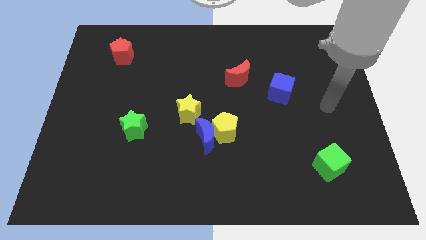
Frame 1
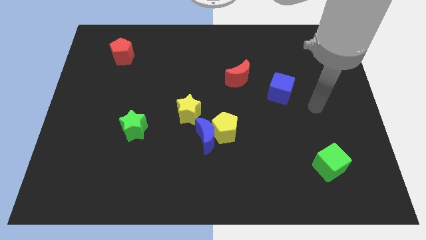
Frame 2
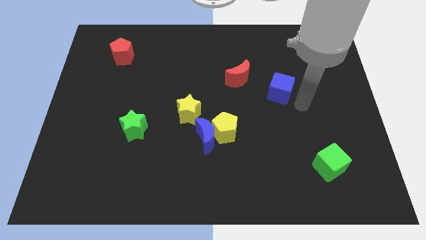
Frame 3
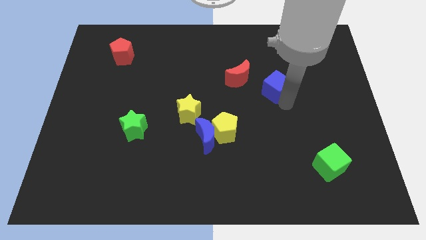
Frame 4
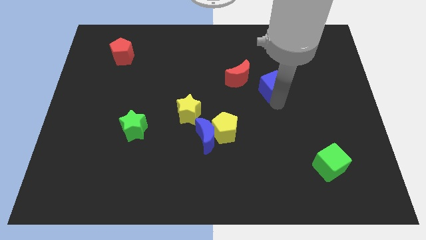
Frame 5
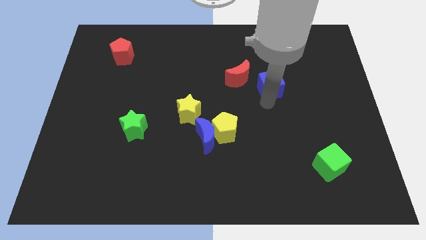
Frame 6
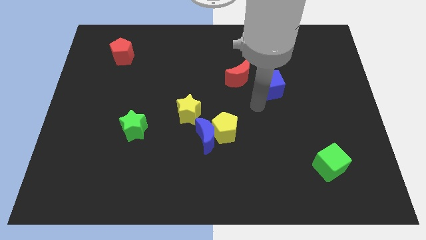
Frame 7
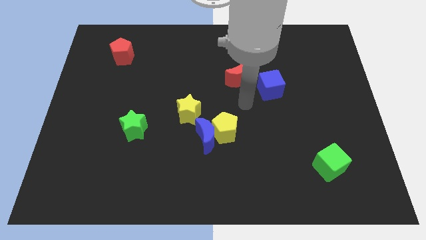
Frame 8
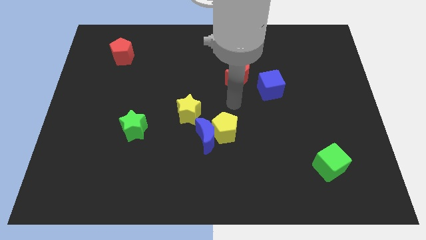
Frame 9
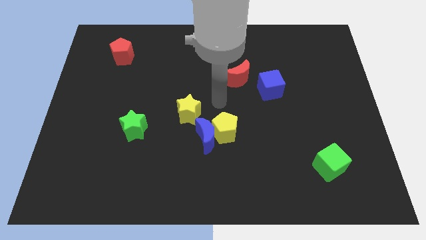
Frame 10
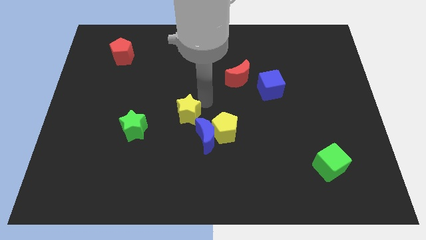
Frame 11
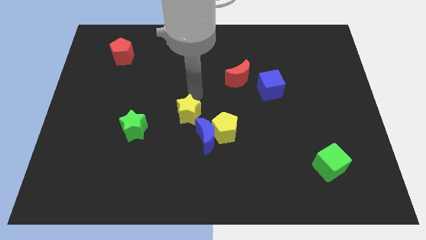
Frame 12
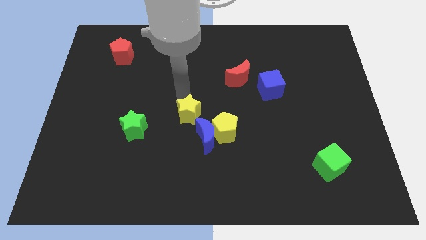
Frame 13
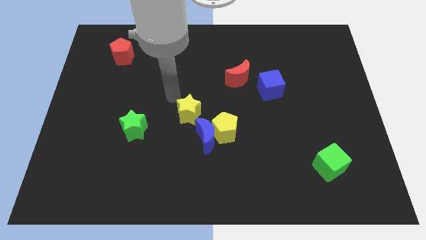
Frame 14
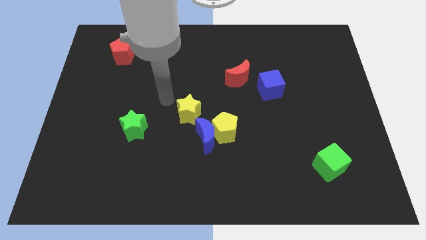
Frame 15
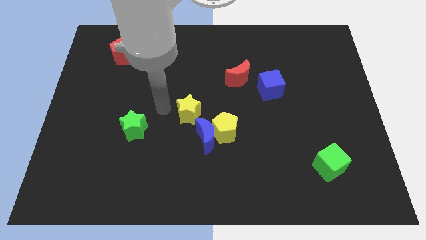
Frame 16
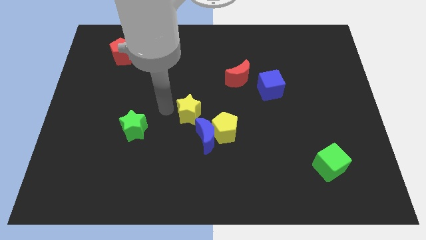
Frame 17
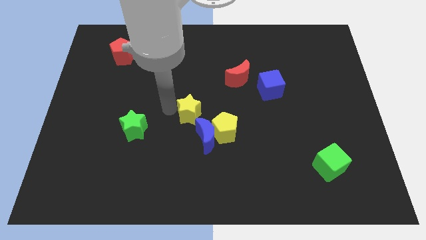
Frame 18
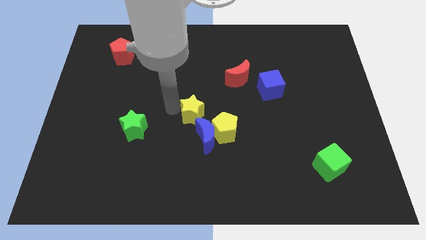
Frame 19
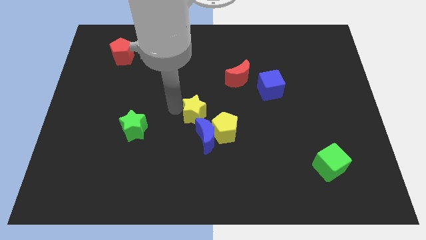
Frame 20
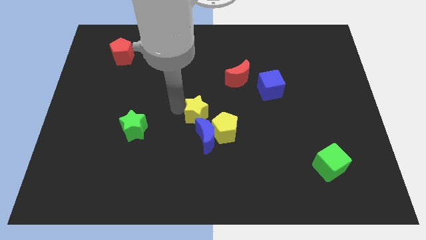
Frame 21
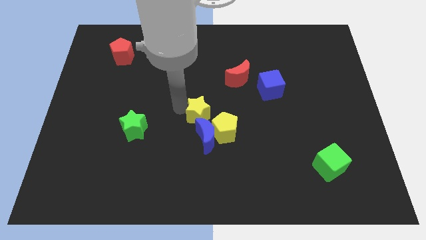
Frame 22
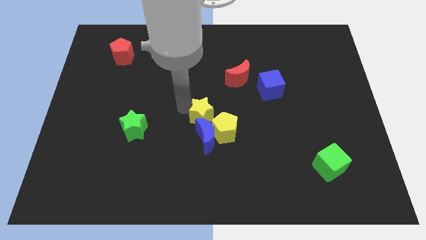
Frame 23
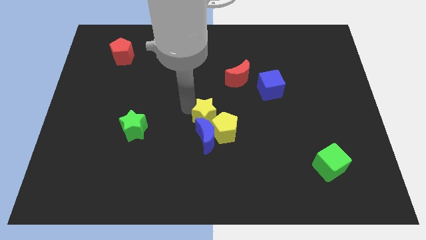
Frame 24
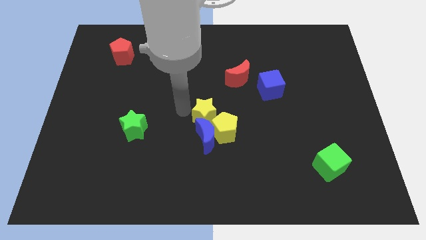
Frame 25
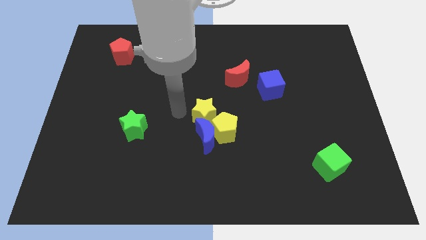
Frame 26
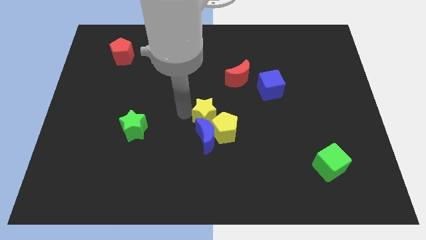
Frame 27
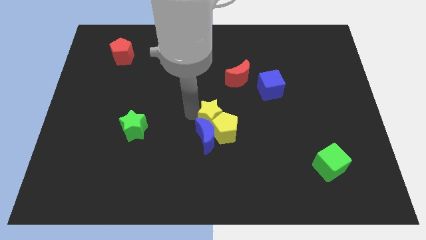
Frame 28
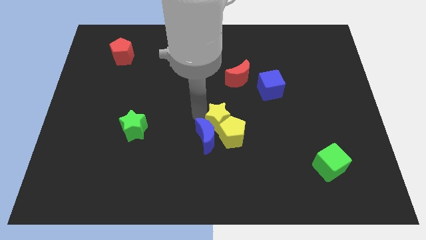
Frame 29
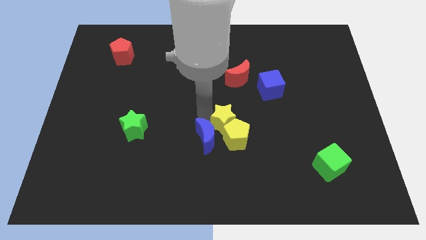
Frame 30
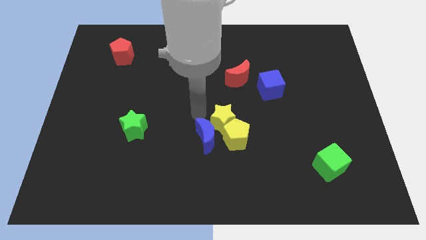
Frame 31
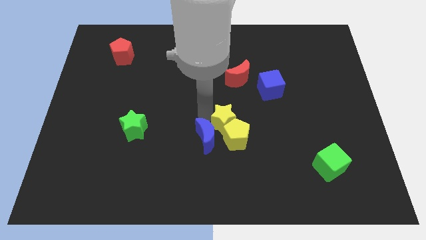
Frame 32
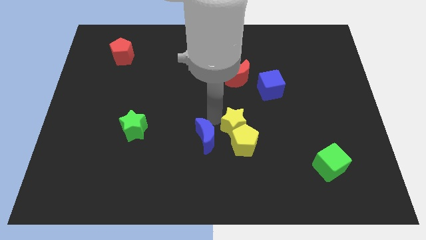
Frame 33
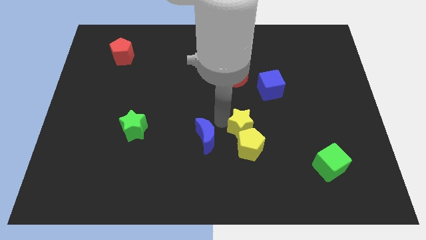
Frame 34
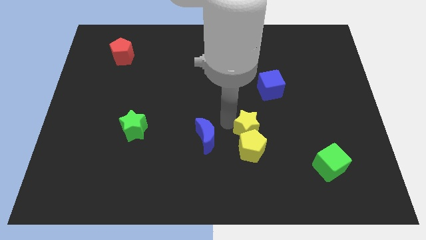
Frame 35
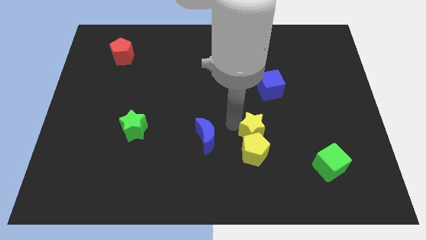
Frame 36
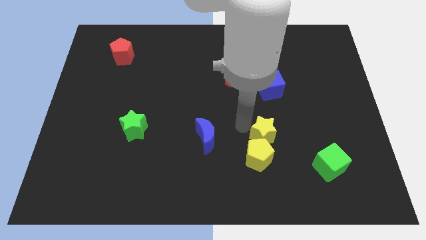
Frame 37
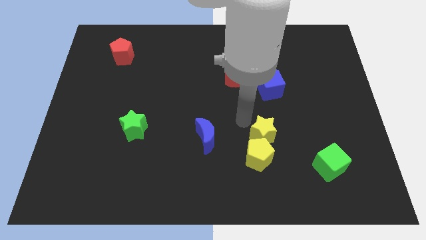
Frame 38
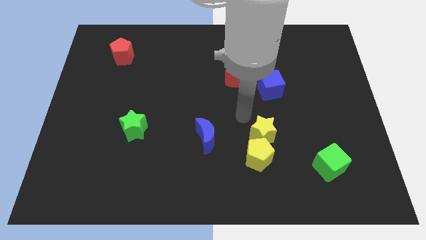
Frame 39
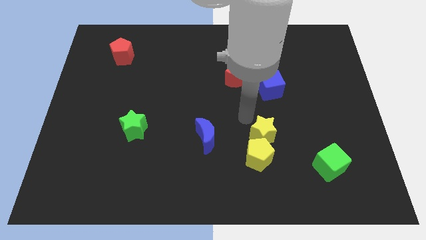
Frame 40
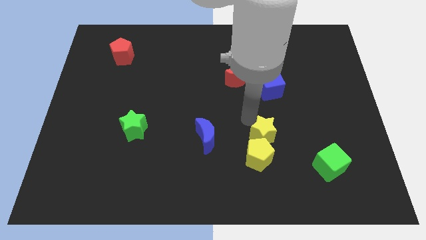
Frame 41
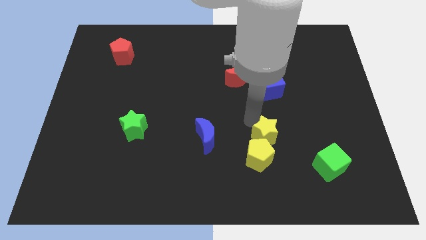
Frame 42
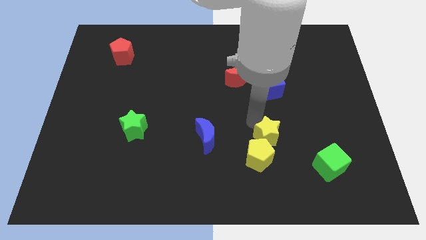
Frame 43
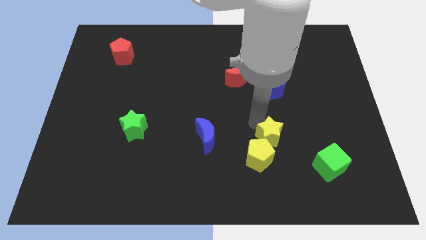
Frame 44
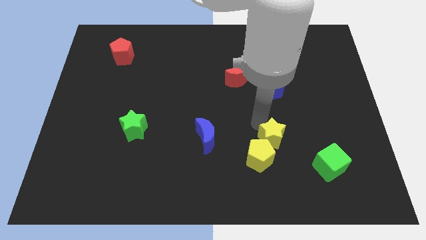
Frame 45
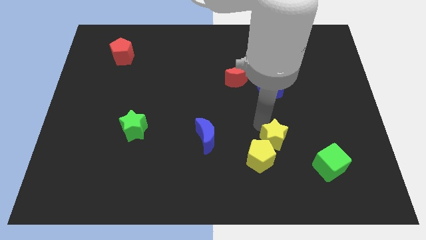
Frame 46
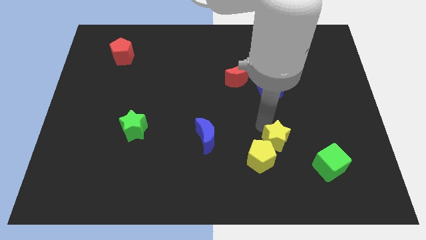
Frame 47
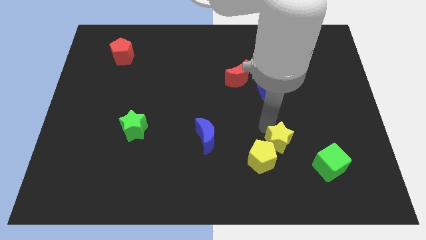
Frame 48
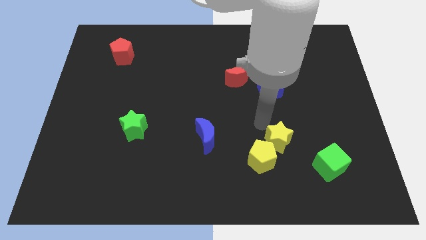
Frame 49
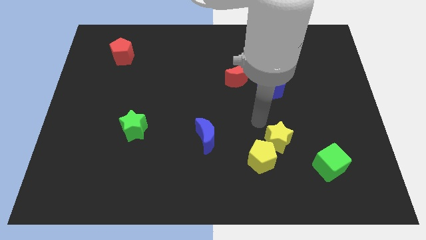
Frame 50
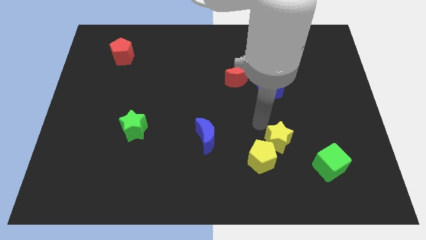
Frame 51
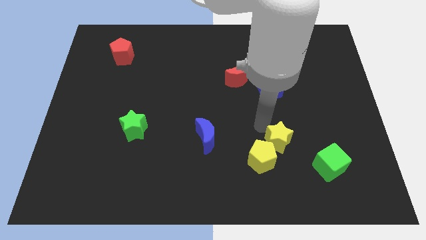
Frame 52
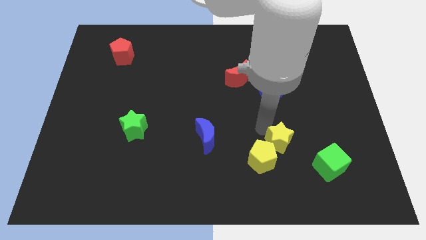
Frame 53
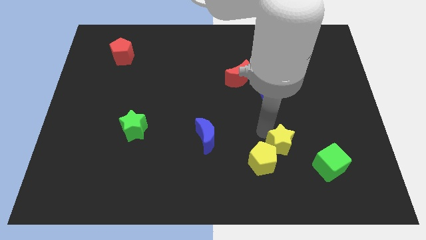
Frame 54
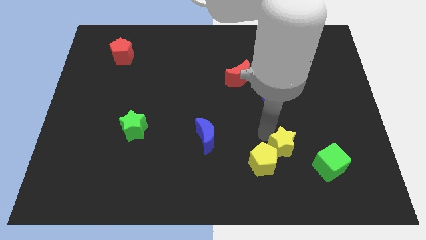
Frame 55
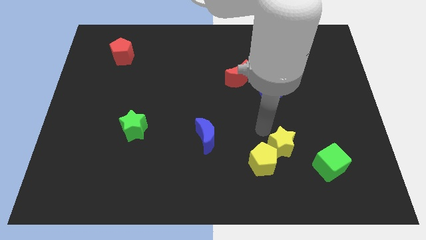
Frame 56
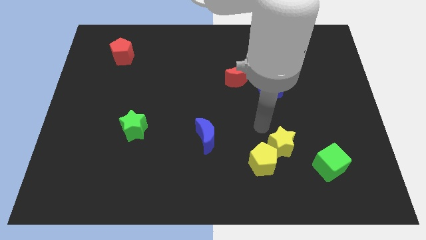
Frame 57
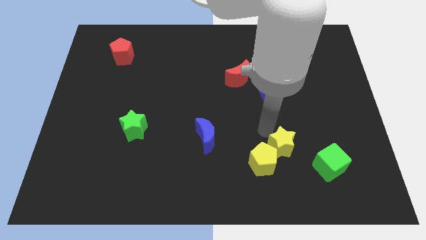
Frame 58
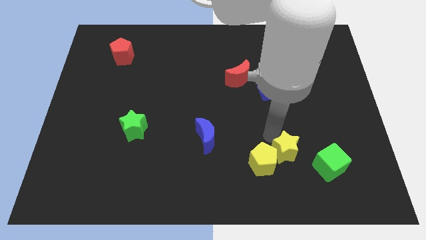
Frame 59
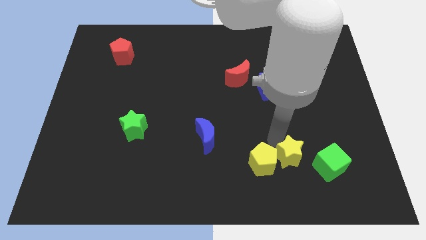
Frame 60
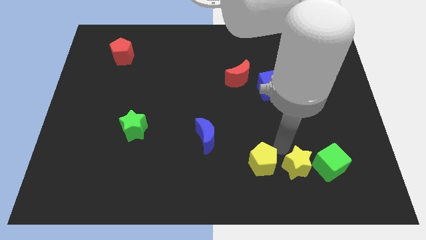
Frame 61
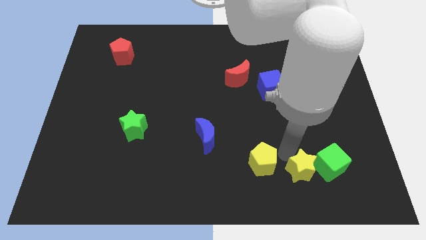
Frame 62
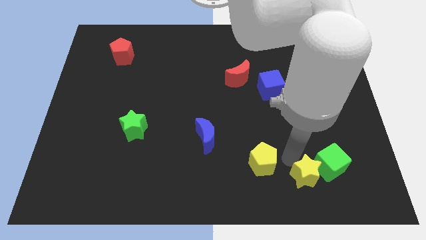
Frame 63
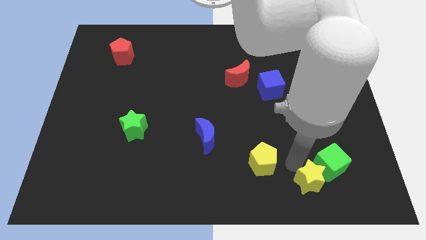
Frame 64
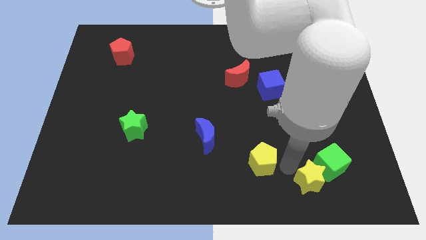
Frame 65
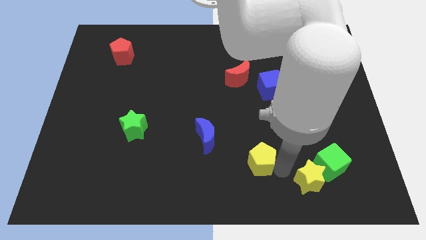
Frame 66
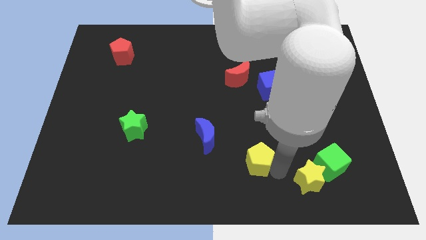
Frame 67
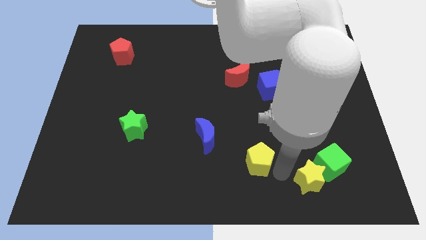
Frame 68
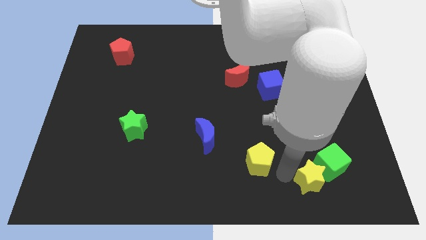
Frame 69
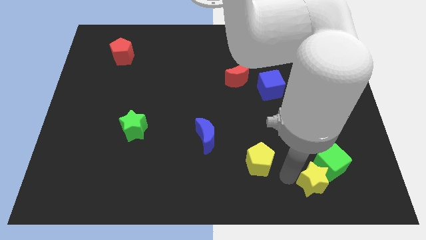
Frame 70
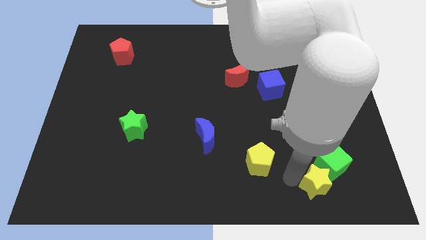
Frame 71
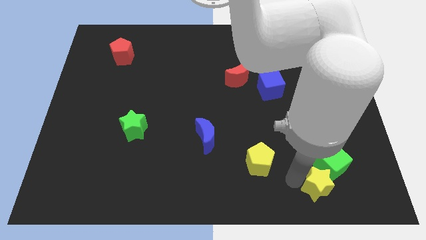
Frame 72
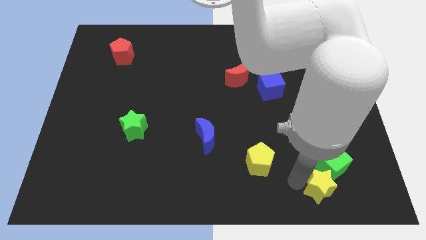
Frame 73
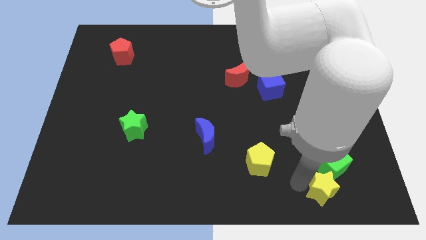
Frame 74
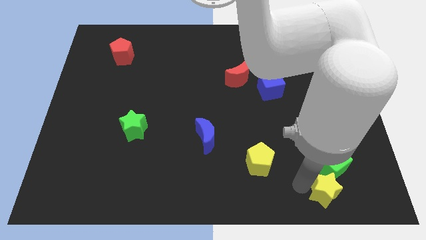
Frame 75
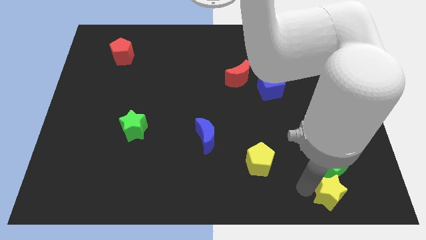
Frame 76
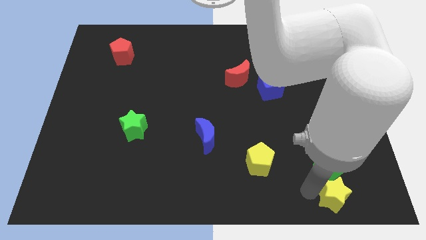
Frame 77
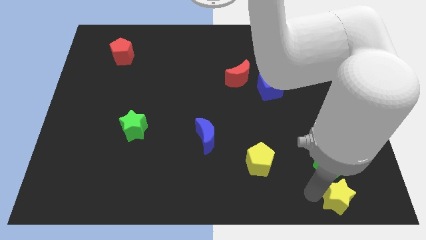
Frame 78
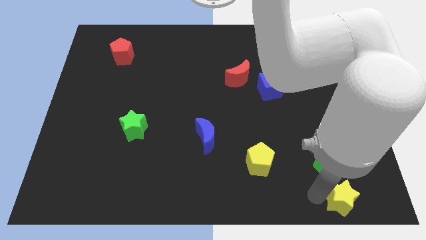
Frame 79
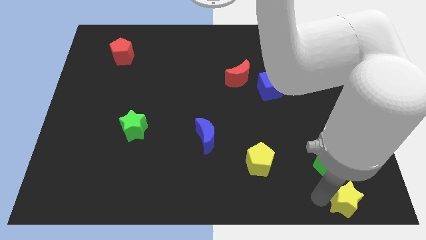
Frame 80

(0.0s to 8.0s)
put the yellow star to the bottom right
